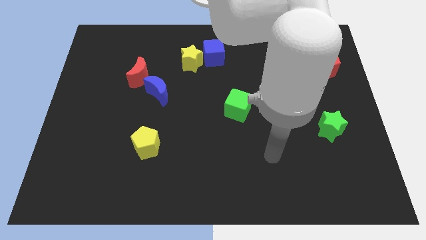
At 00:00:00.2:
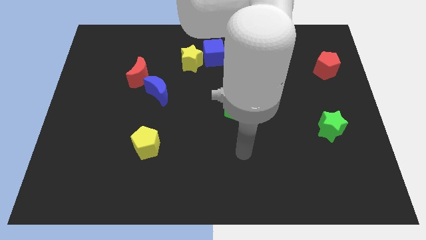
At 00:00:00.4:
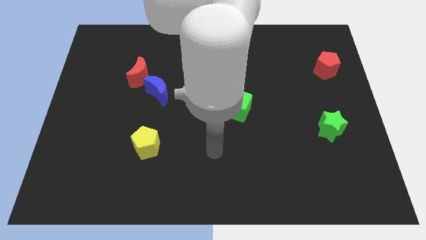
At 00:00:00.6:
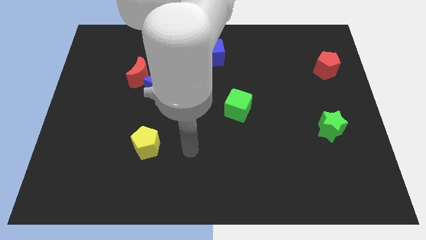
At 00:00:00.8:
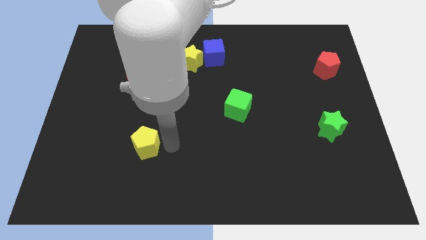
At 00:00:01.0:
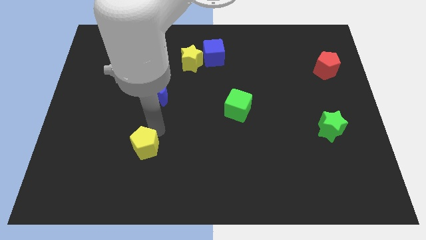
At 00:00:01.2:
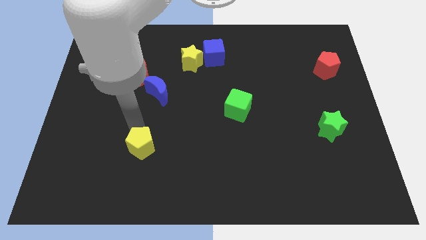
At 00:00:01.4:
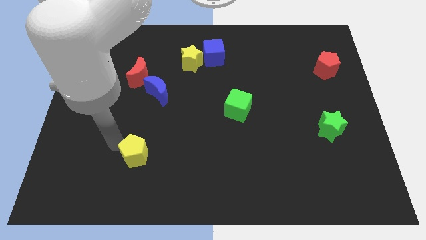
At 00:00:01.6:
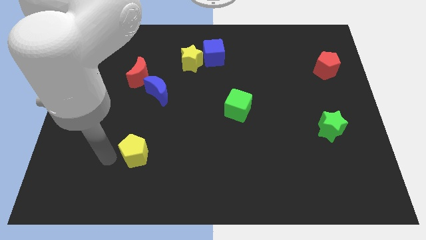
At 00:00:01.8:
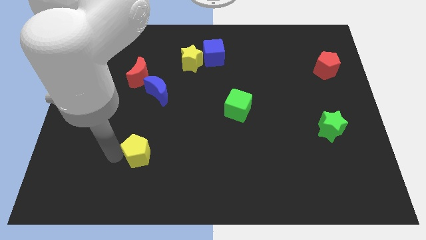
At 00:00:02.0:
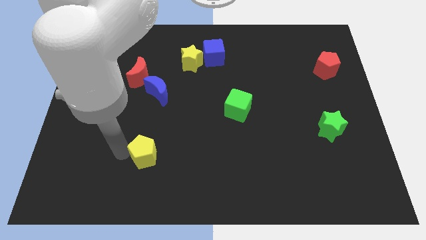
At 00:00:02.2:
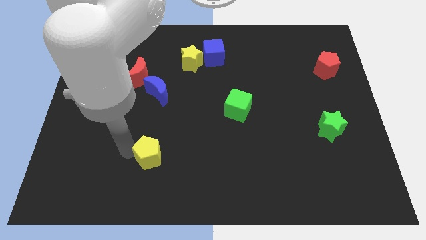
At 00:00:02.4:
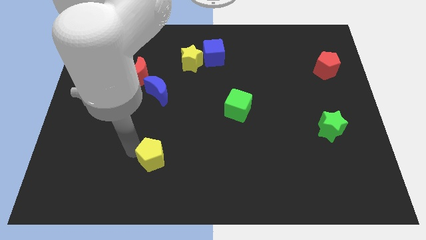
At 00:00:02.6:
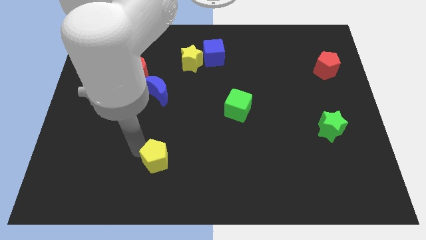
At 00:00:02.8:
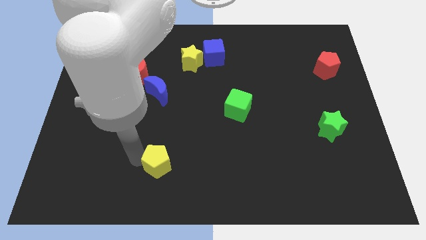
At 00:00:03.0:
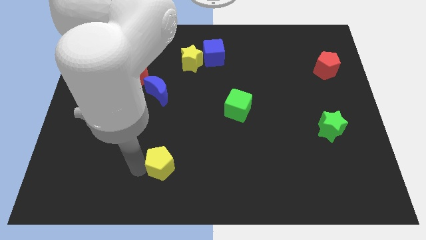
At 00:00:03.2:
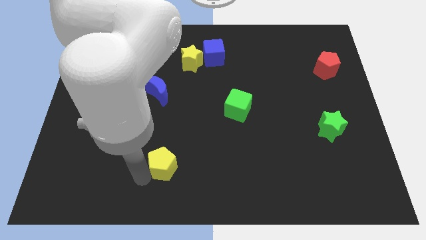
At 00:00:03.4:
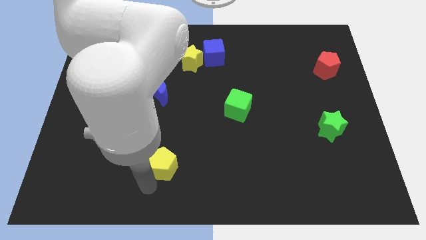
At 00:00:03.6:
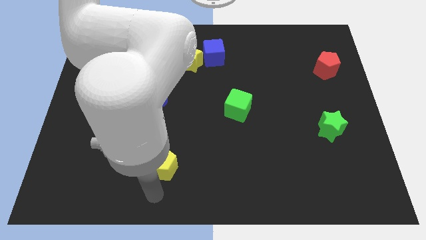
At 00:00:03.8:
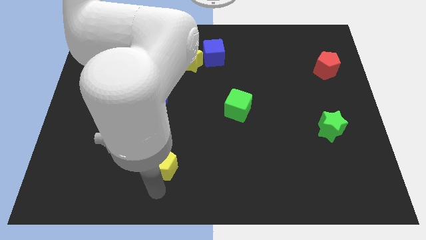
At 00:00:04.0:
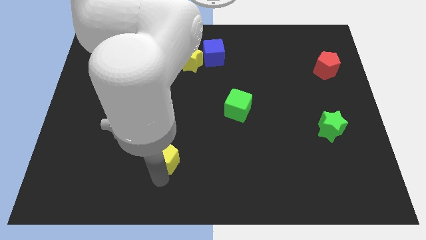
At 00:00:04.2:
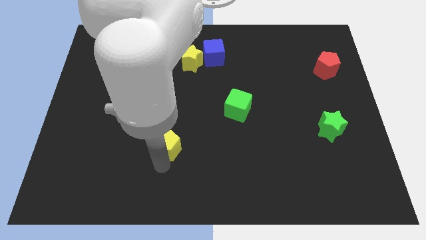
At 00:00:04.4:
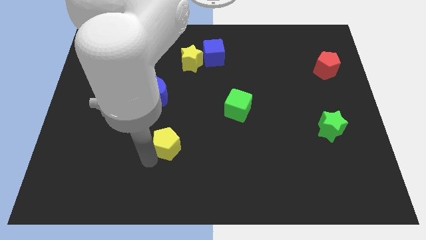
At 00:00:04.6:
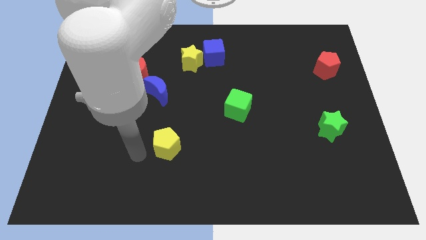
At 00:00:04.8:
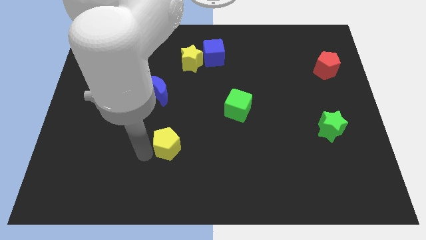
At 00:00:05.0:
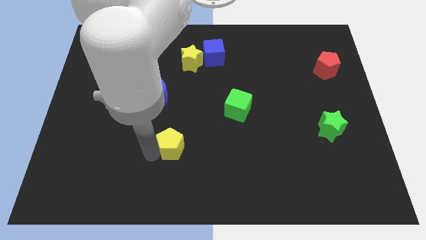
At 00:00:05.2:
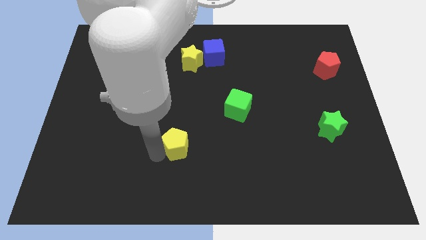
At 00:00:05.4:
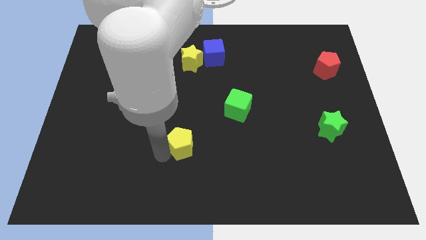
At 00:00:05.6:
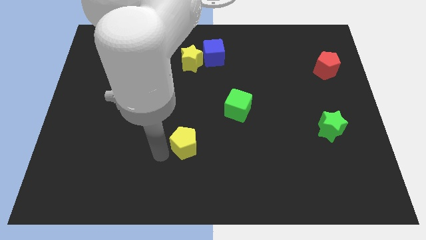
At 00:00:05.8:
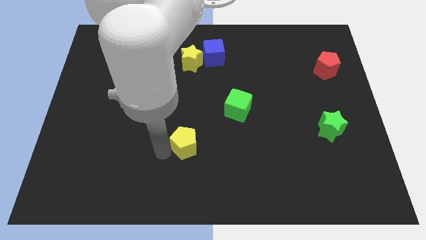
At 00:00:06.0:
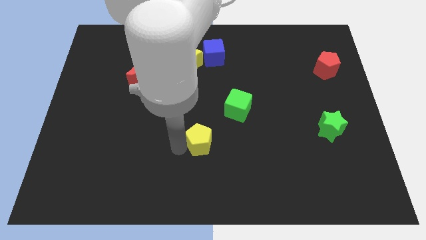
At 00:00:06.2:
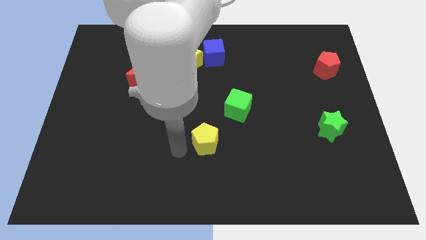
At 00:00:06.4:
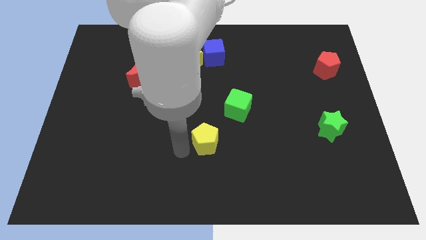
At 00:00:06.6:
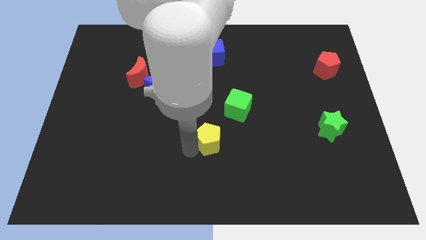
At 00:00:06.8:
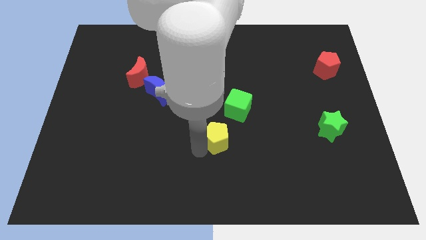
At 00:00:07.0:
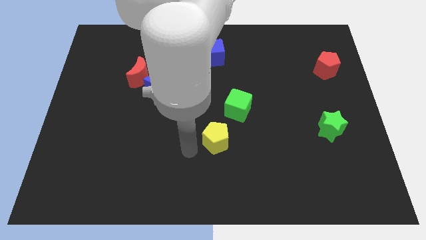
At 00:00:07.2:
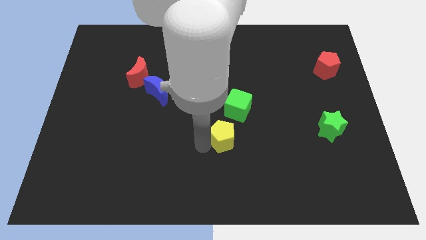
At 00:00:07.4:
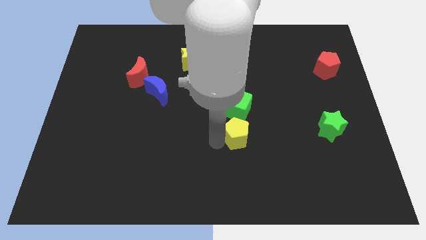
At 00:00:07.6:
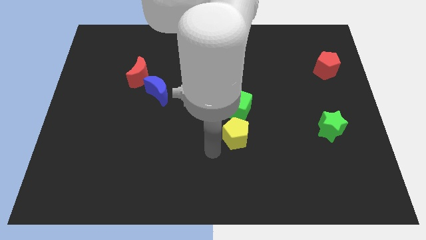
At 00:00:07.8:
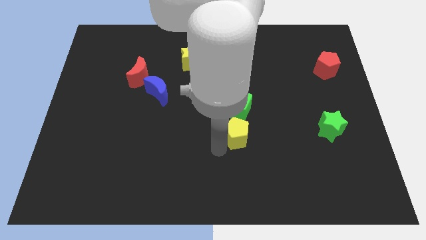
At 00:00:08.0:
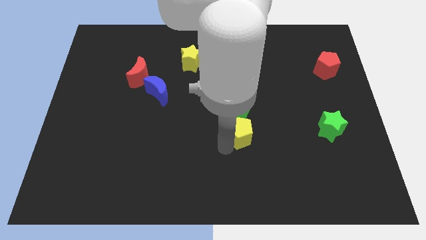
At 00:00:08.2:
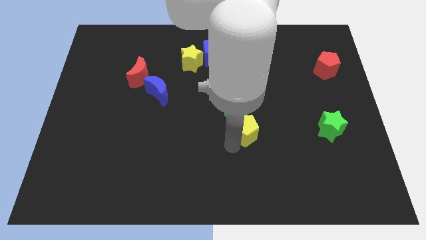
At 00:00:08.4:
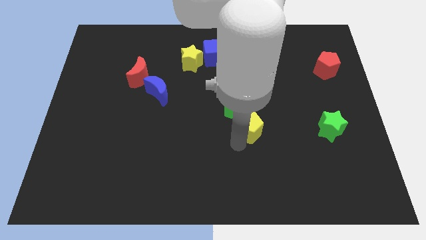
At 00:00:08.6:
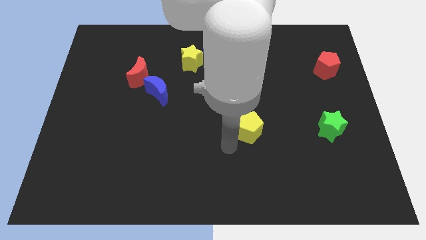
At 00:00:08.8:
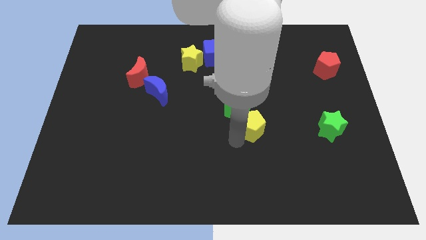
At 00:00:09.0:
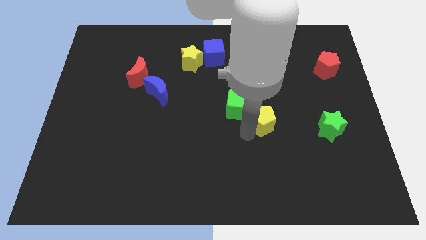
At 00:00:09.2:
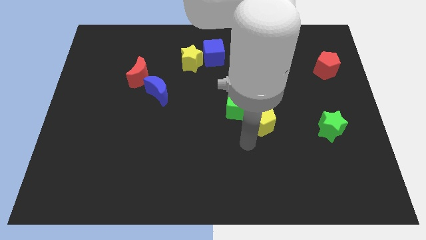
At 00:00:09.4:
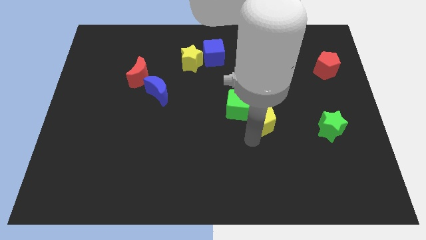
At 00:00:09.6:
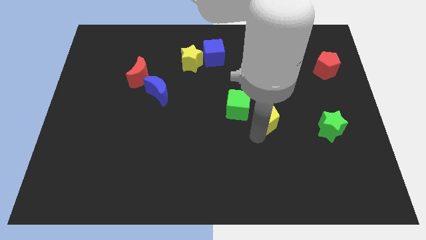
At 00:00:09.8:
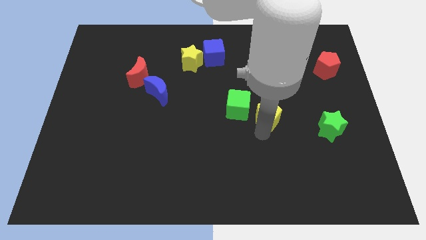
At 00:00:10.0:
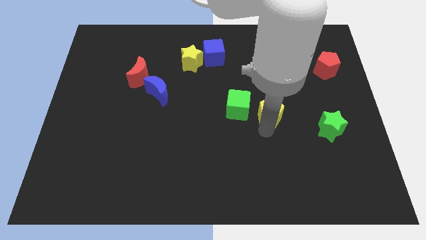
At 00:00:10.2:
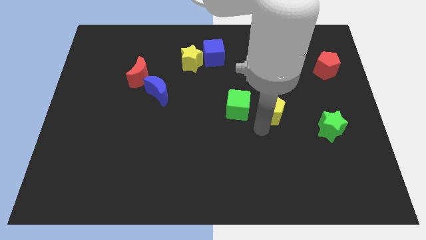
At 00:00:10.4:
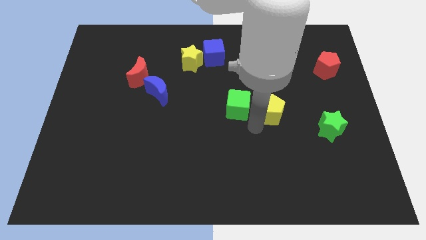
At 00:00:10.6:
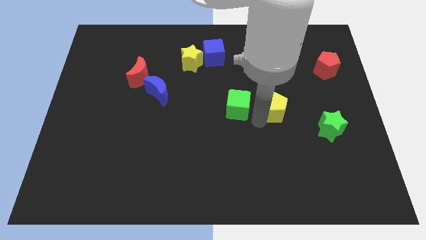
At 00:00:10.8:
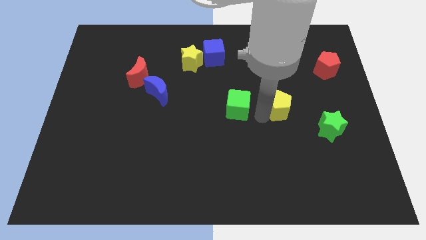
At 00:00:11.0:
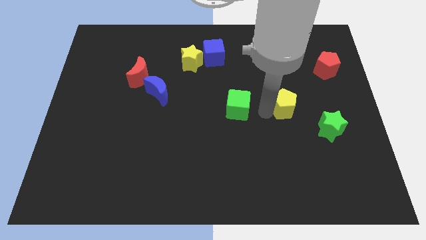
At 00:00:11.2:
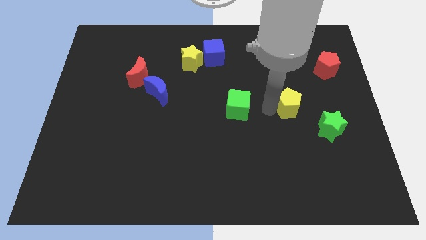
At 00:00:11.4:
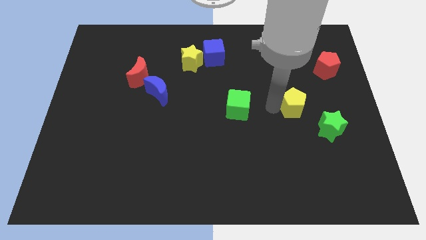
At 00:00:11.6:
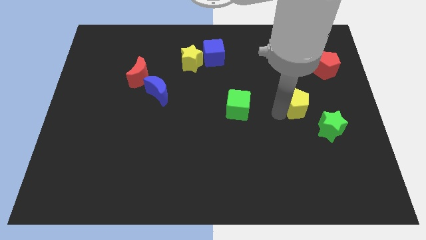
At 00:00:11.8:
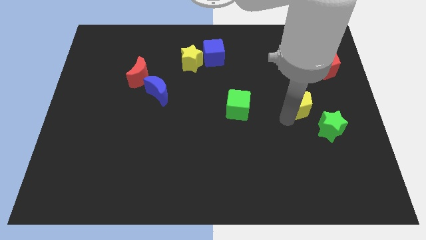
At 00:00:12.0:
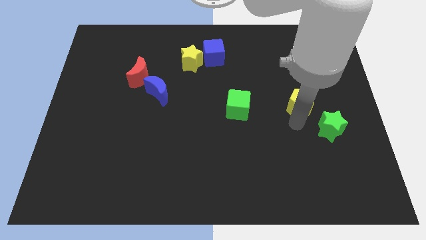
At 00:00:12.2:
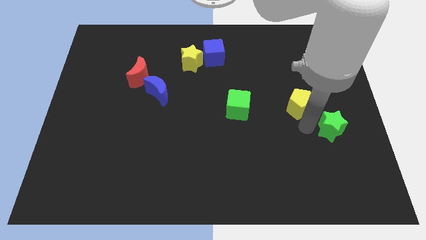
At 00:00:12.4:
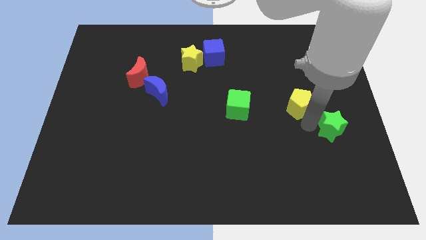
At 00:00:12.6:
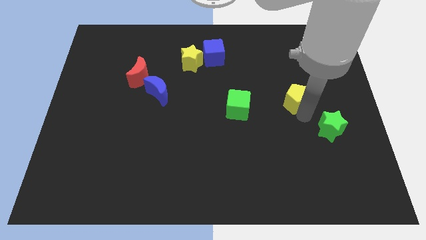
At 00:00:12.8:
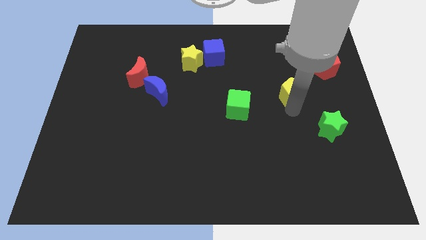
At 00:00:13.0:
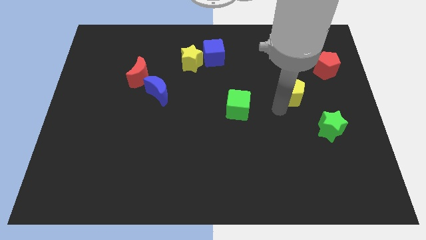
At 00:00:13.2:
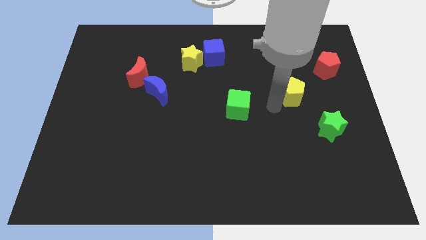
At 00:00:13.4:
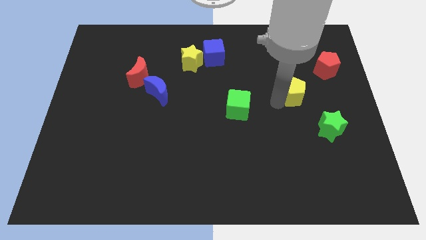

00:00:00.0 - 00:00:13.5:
slide the yellow pentagon to the bottom left side of the red pentagon

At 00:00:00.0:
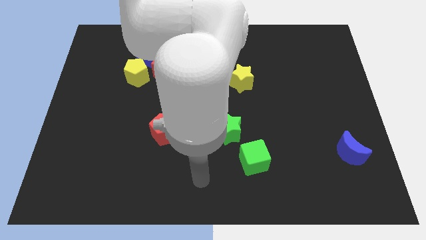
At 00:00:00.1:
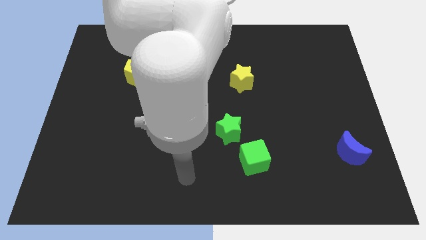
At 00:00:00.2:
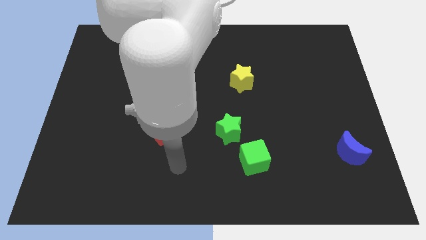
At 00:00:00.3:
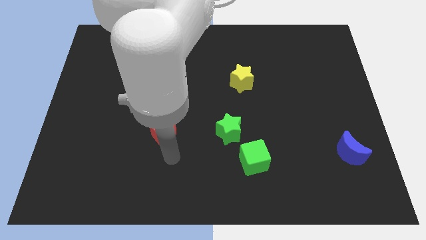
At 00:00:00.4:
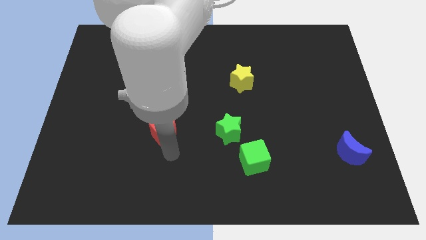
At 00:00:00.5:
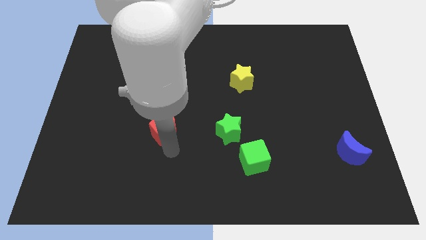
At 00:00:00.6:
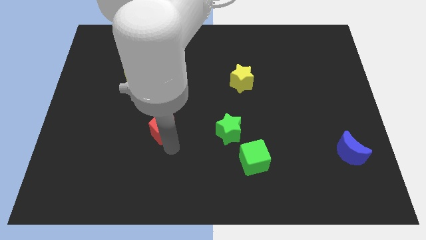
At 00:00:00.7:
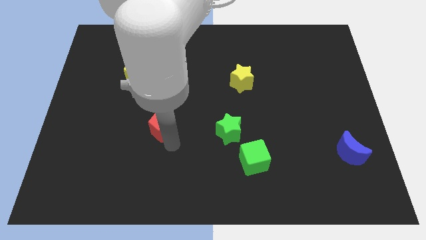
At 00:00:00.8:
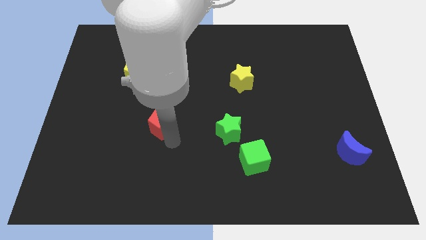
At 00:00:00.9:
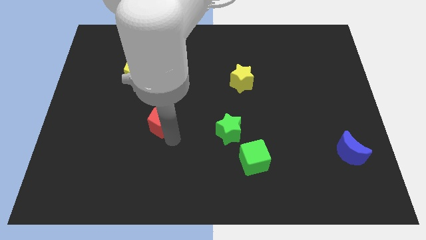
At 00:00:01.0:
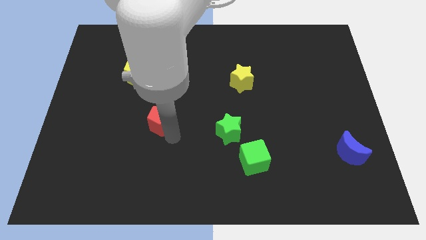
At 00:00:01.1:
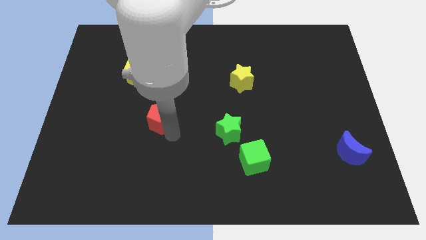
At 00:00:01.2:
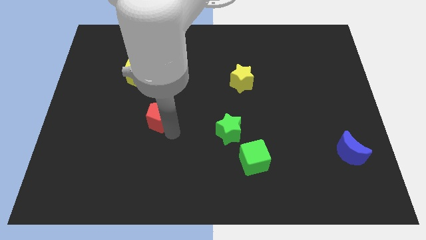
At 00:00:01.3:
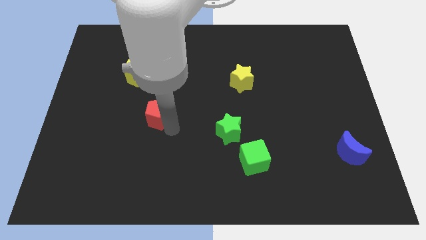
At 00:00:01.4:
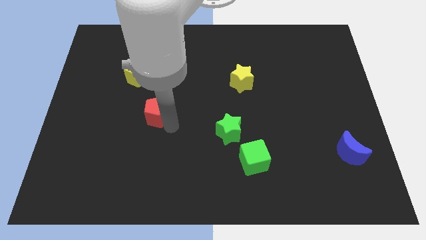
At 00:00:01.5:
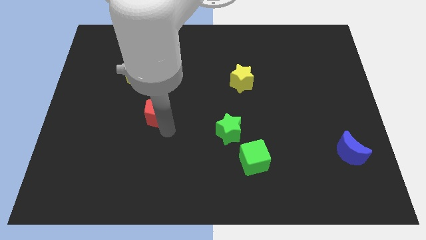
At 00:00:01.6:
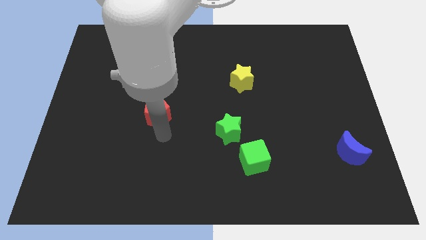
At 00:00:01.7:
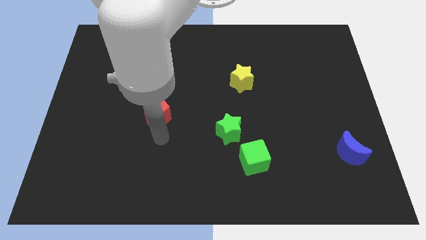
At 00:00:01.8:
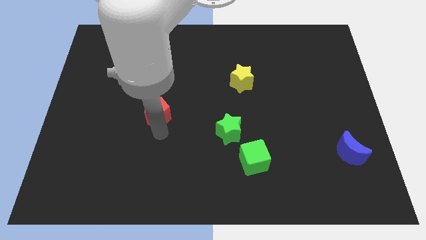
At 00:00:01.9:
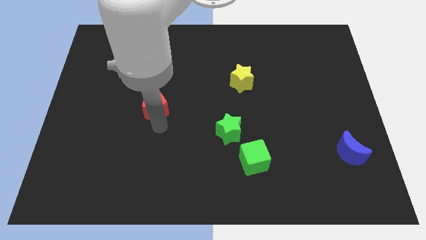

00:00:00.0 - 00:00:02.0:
slide the red pentagon to the bottom right side of the yellow pentagon
